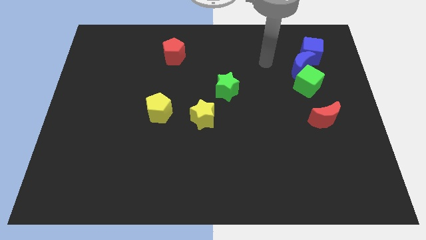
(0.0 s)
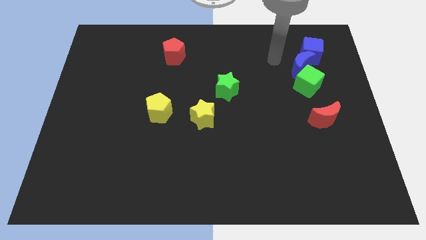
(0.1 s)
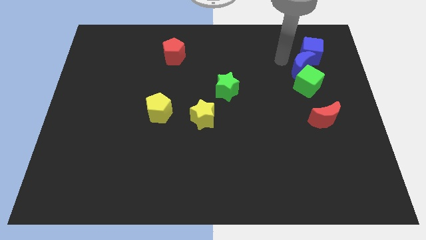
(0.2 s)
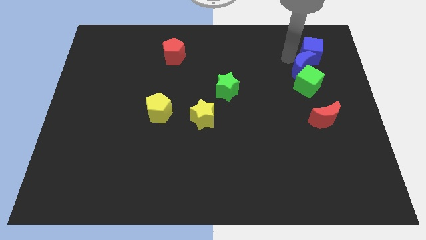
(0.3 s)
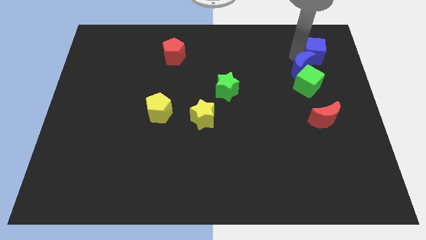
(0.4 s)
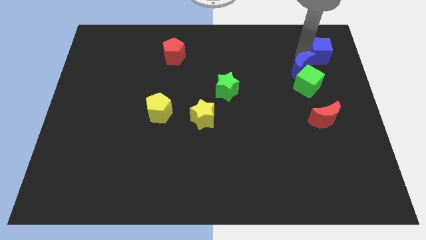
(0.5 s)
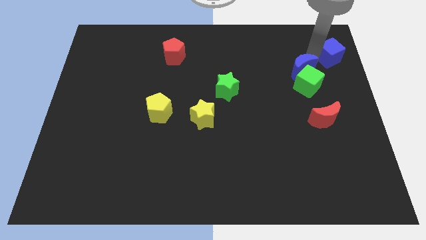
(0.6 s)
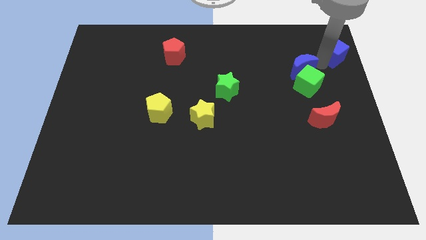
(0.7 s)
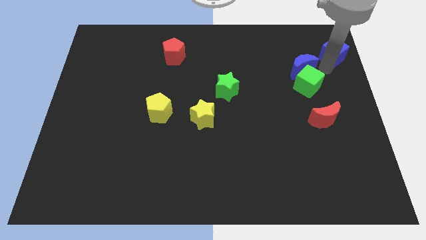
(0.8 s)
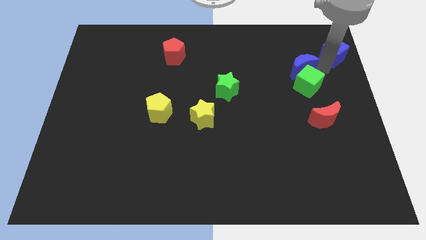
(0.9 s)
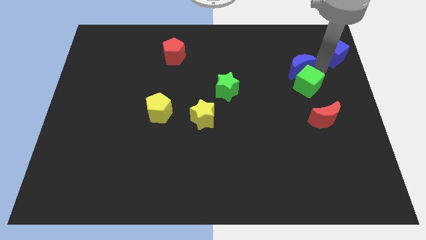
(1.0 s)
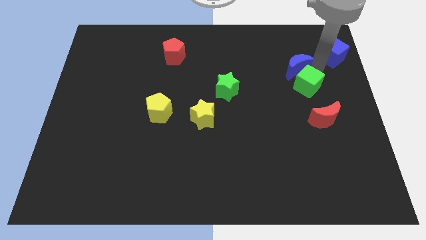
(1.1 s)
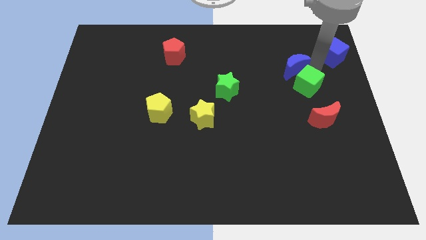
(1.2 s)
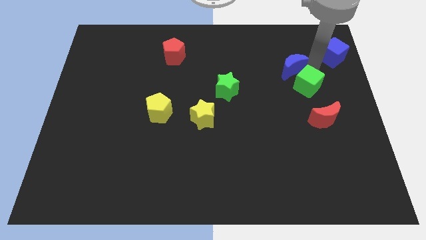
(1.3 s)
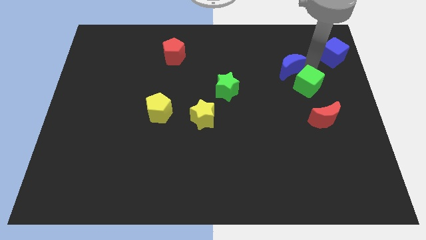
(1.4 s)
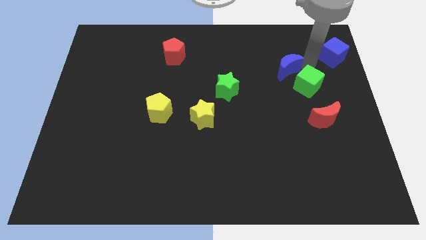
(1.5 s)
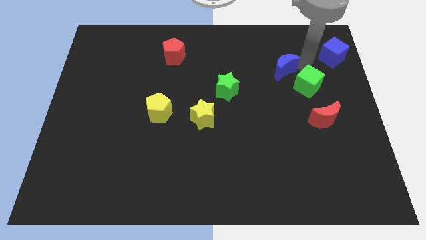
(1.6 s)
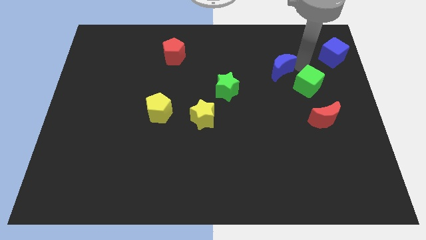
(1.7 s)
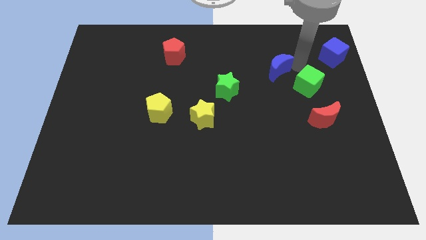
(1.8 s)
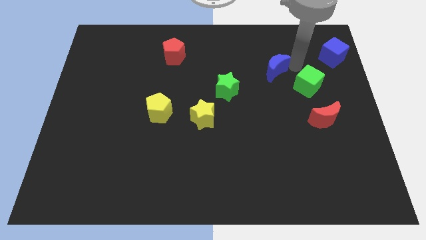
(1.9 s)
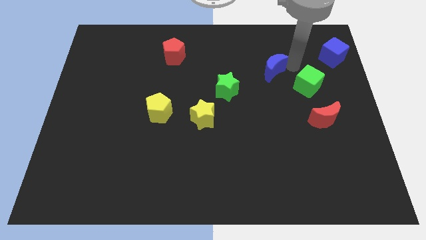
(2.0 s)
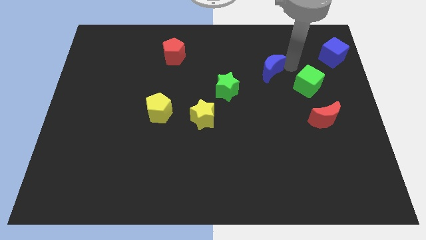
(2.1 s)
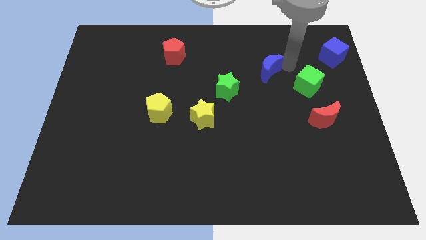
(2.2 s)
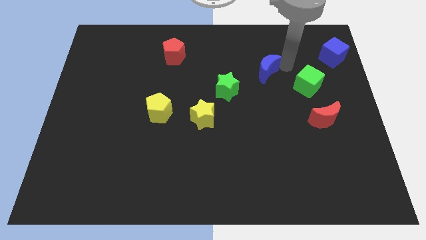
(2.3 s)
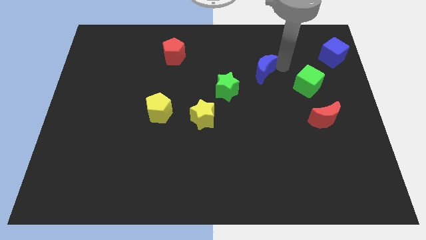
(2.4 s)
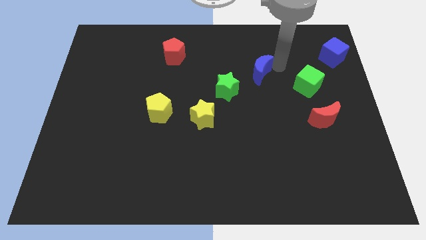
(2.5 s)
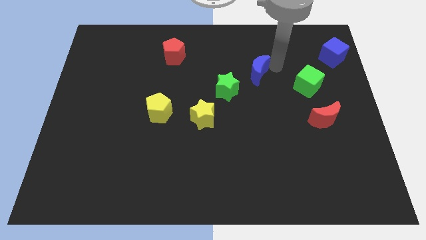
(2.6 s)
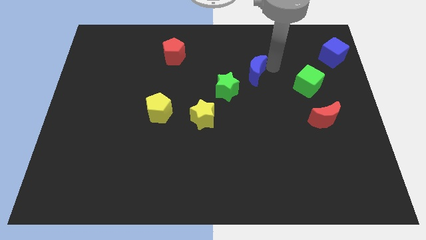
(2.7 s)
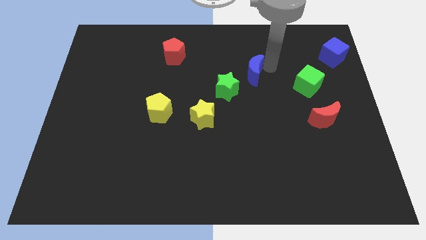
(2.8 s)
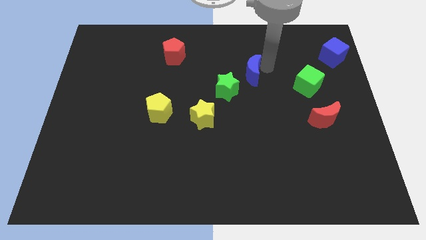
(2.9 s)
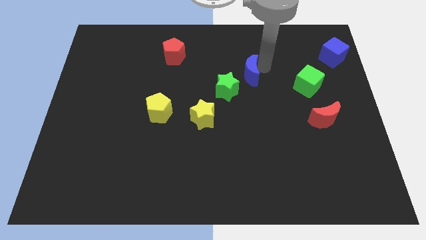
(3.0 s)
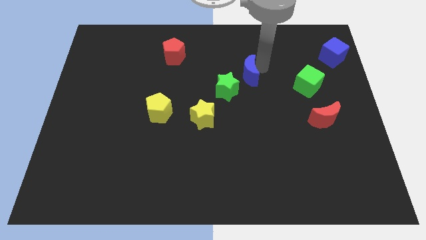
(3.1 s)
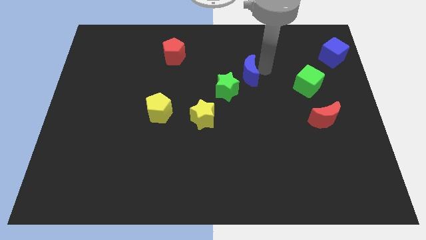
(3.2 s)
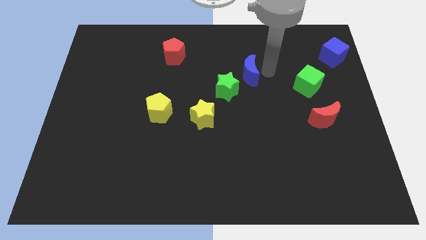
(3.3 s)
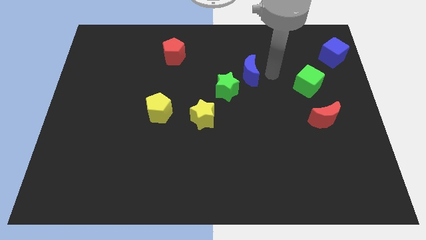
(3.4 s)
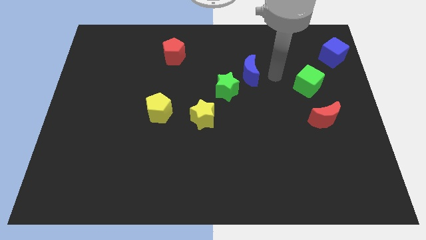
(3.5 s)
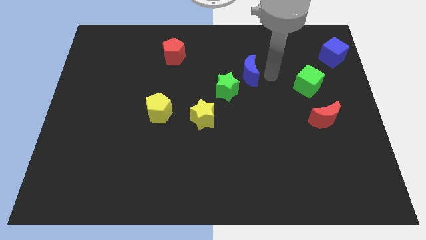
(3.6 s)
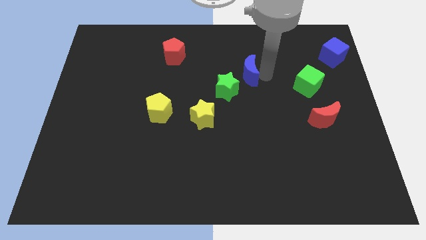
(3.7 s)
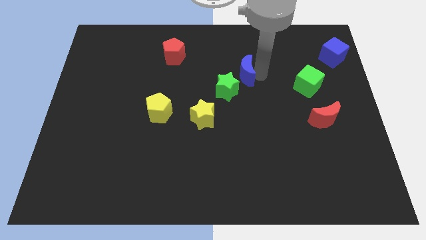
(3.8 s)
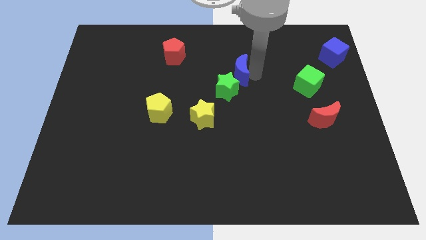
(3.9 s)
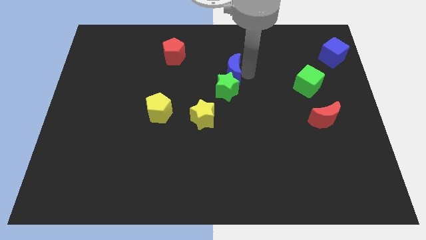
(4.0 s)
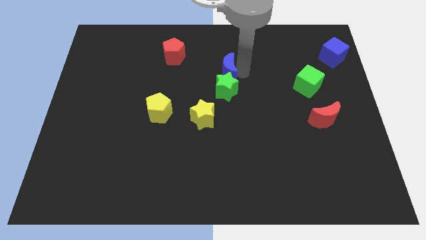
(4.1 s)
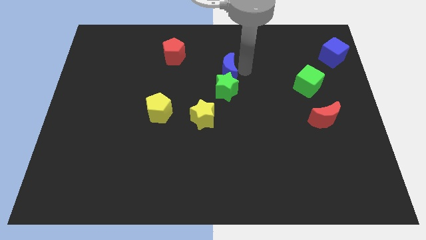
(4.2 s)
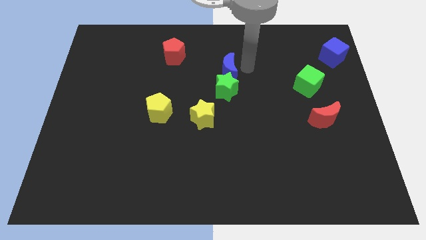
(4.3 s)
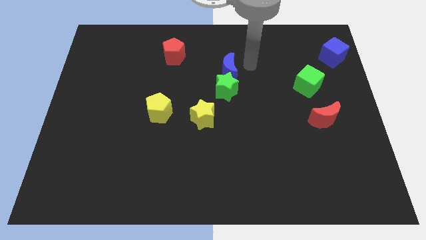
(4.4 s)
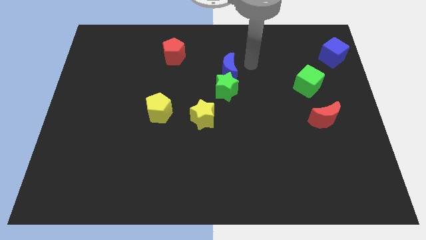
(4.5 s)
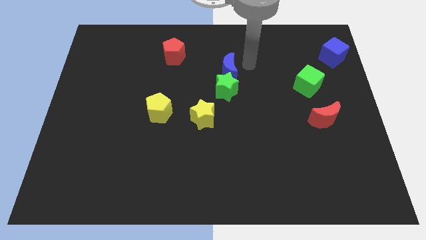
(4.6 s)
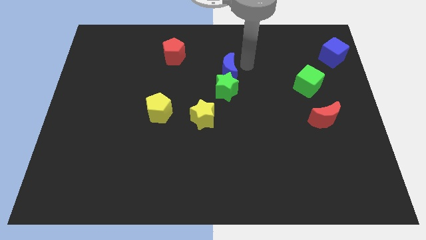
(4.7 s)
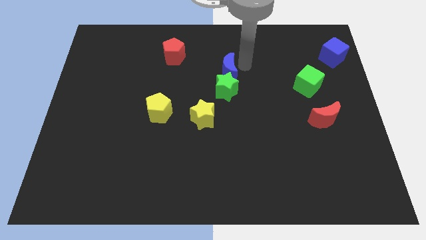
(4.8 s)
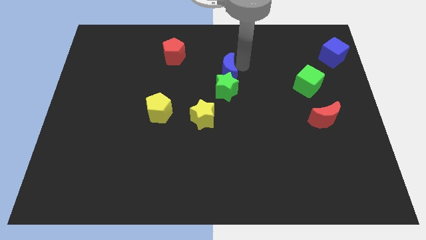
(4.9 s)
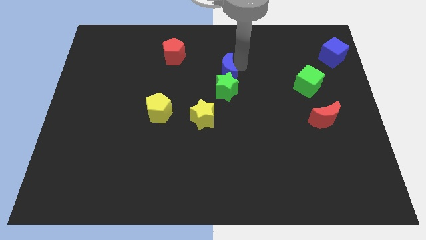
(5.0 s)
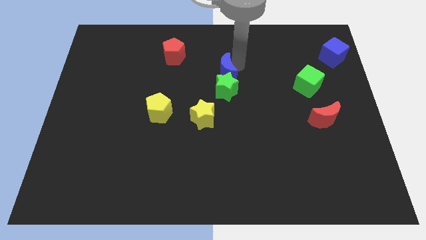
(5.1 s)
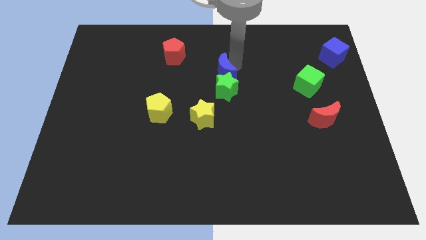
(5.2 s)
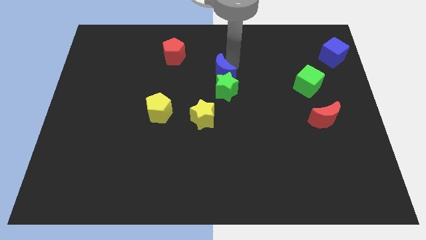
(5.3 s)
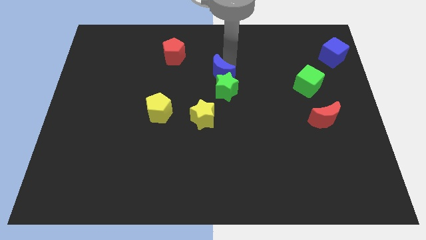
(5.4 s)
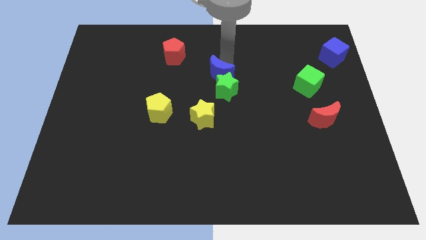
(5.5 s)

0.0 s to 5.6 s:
move the blue moon to the top of the yellow star

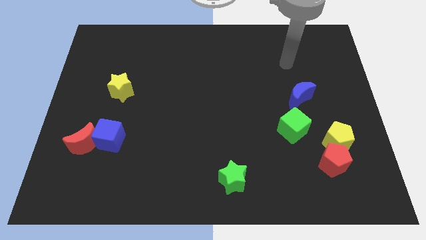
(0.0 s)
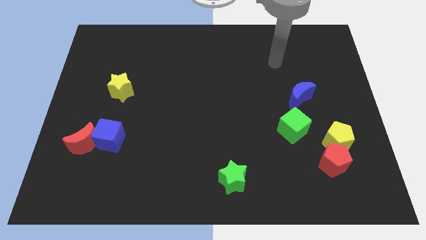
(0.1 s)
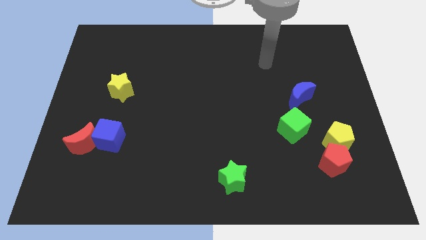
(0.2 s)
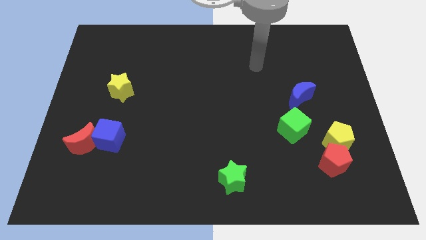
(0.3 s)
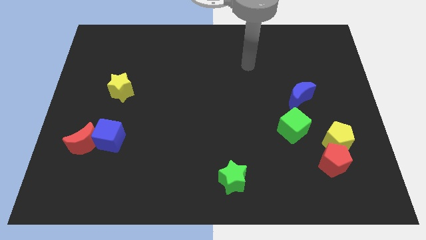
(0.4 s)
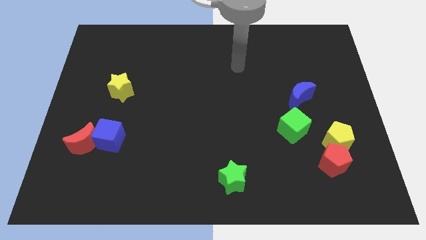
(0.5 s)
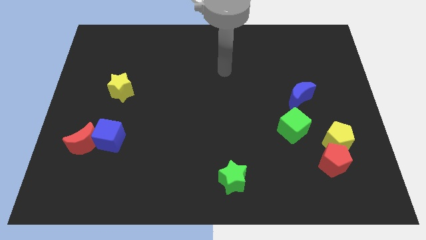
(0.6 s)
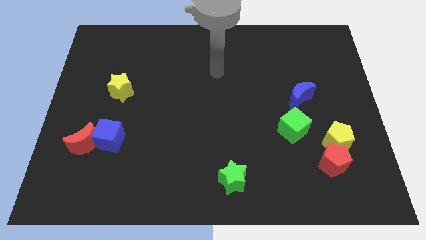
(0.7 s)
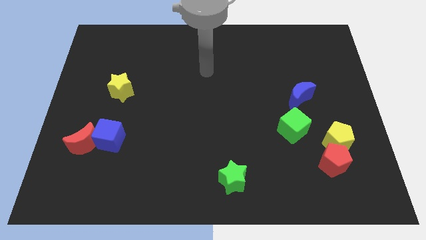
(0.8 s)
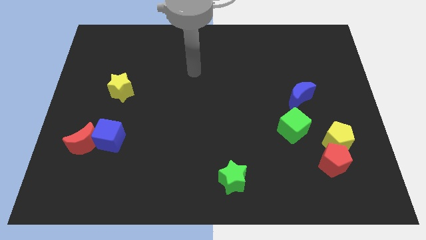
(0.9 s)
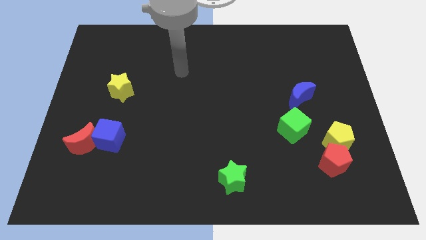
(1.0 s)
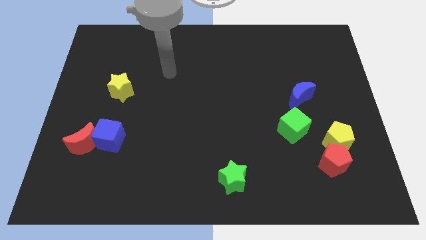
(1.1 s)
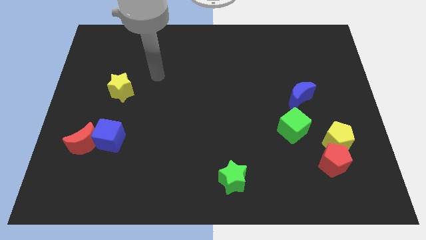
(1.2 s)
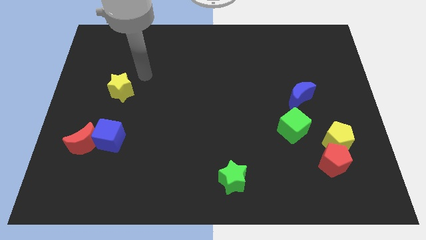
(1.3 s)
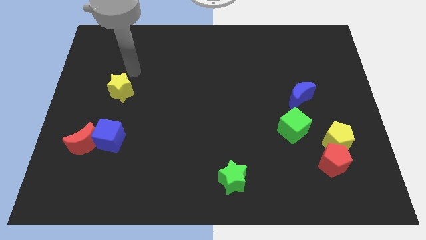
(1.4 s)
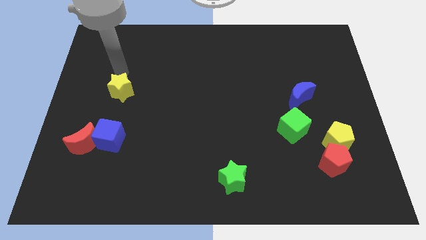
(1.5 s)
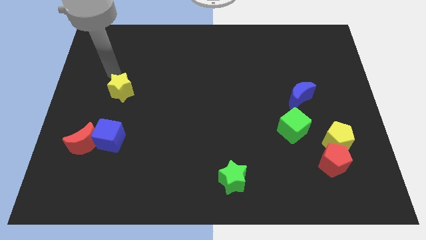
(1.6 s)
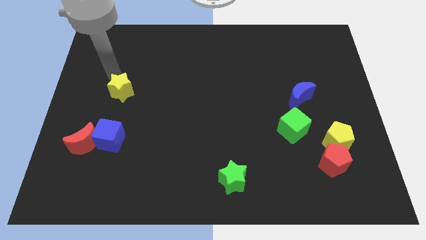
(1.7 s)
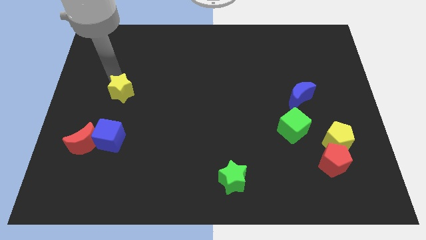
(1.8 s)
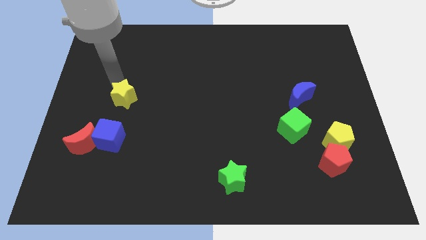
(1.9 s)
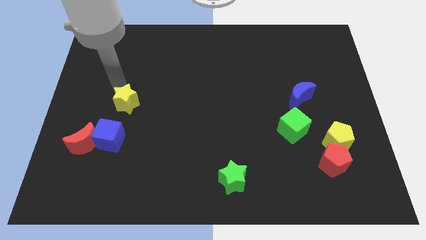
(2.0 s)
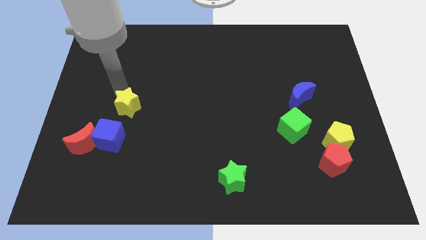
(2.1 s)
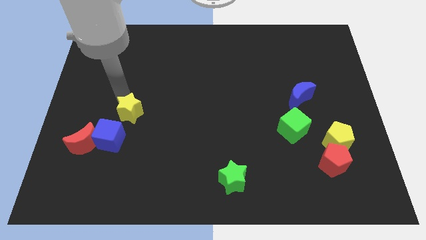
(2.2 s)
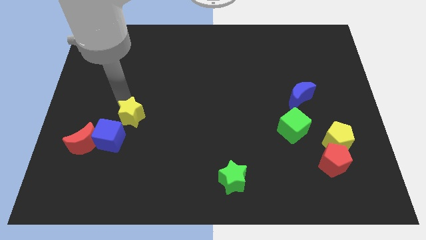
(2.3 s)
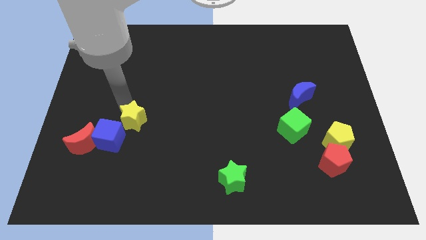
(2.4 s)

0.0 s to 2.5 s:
slide the yellow star to the right of the blue cube

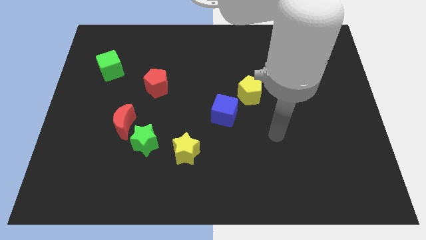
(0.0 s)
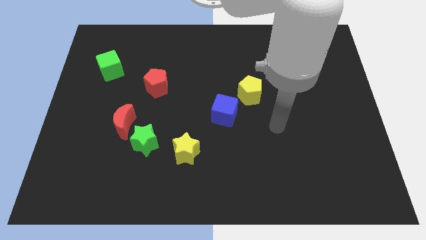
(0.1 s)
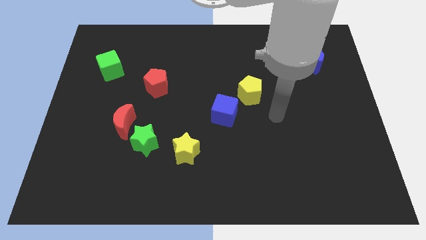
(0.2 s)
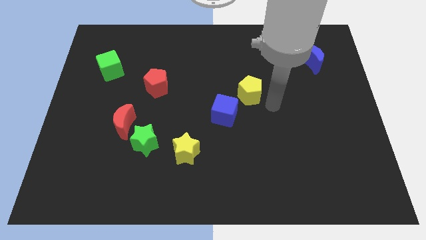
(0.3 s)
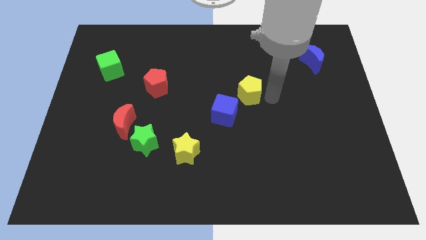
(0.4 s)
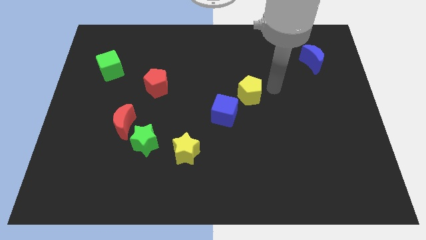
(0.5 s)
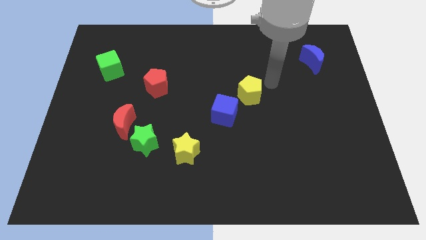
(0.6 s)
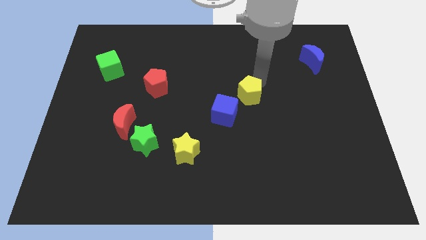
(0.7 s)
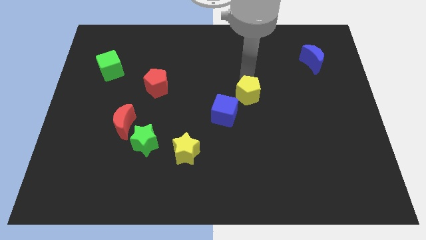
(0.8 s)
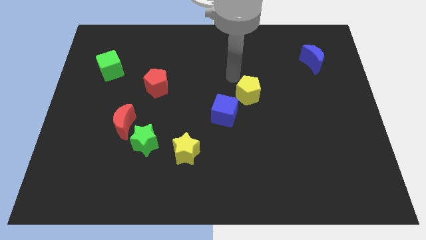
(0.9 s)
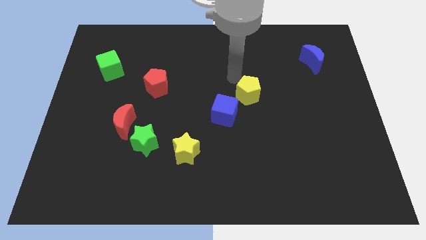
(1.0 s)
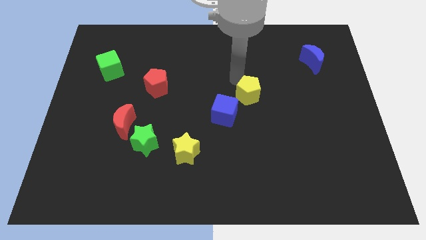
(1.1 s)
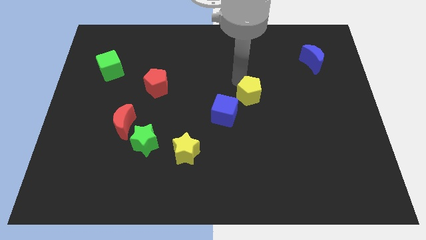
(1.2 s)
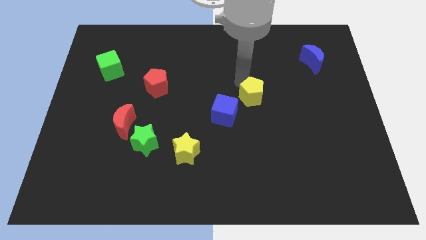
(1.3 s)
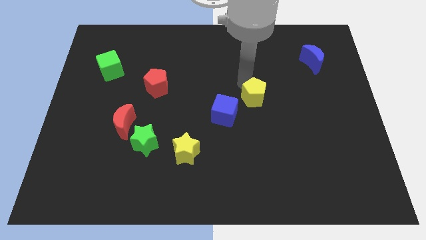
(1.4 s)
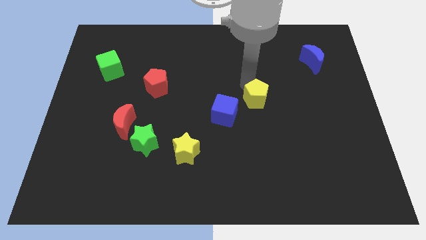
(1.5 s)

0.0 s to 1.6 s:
put the yellow pentagon to the right side of the blue cube
